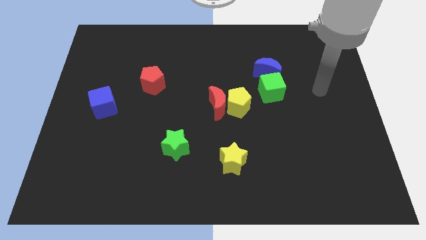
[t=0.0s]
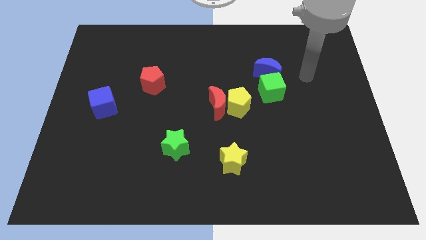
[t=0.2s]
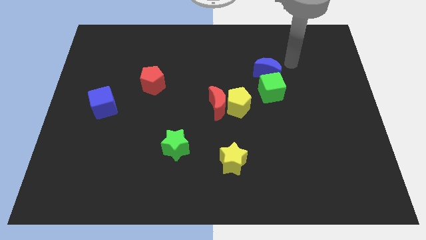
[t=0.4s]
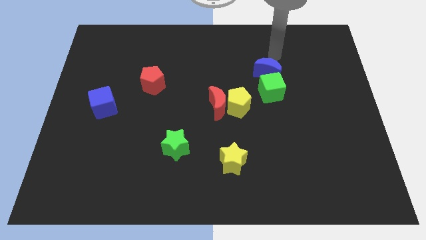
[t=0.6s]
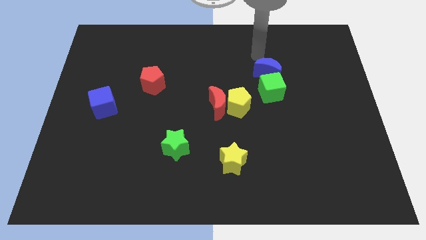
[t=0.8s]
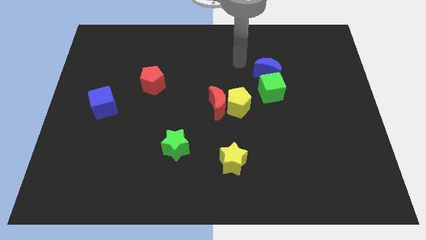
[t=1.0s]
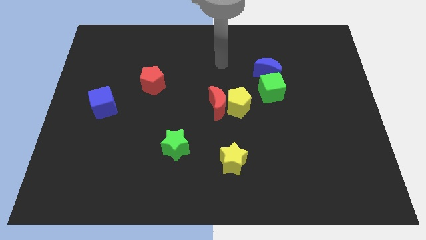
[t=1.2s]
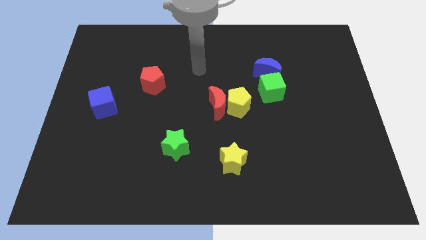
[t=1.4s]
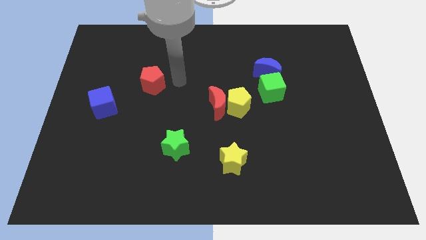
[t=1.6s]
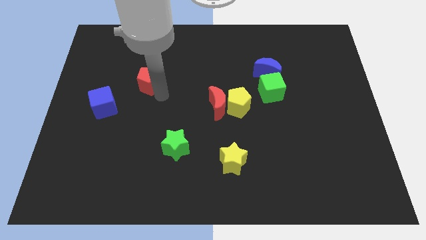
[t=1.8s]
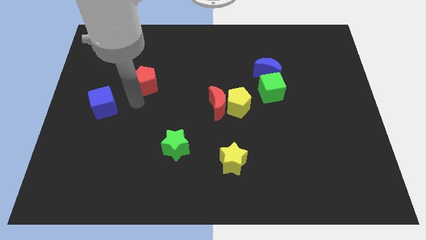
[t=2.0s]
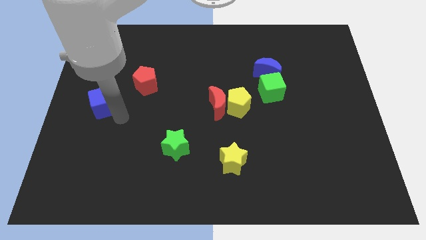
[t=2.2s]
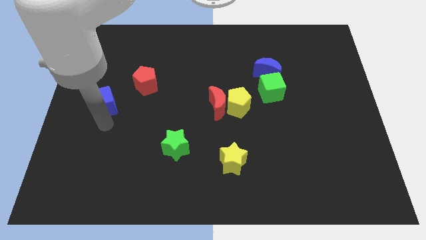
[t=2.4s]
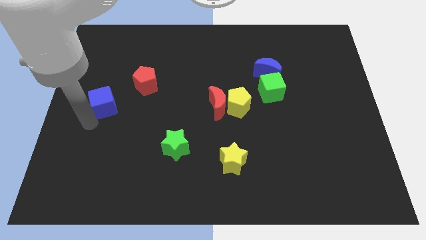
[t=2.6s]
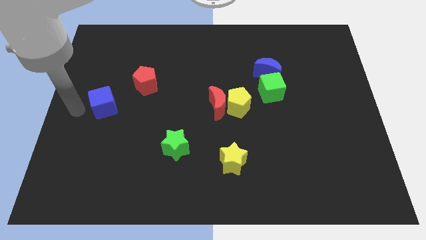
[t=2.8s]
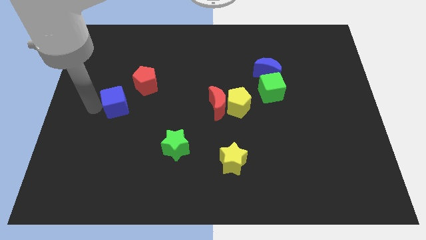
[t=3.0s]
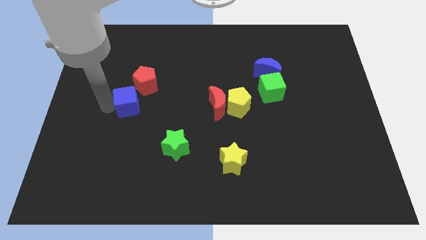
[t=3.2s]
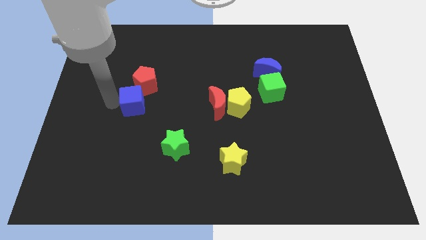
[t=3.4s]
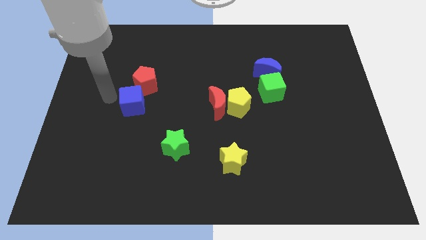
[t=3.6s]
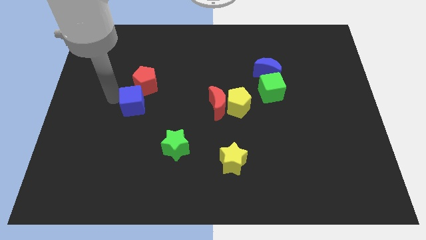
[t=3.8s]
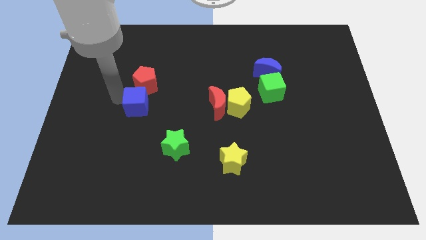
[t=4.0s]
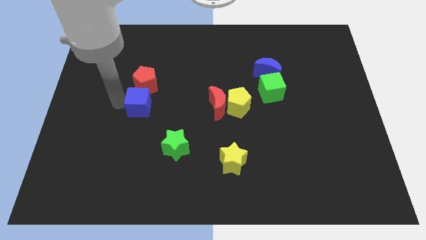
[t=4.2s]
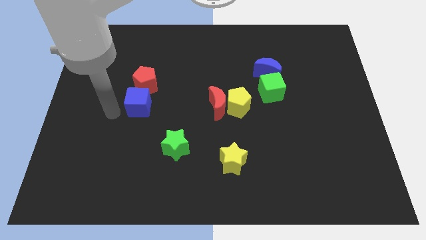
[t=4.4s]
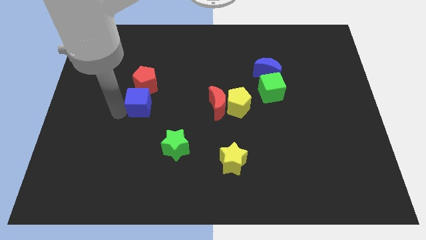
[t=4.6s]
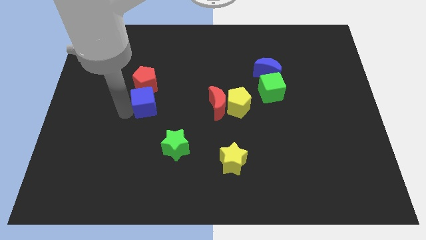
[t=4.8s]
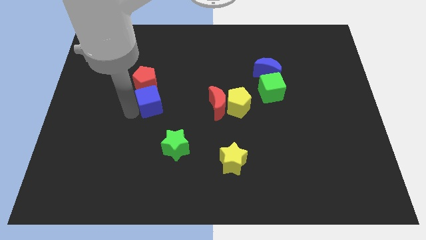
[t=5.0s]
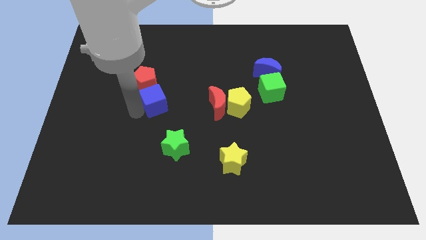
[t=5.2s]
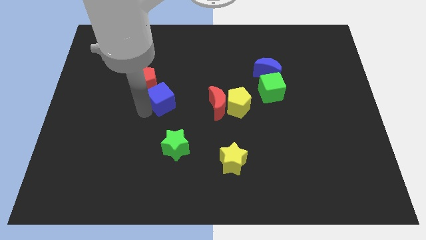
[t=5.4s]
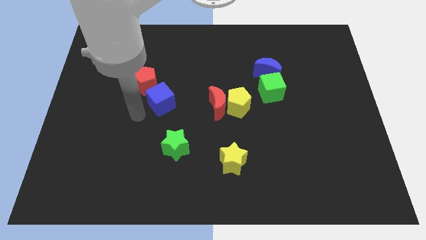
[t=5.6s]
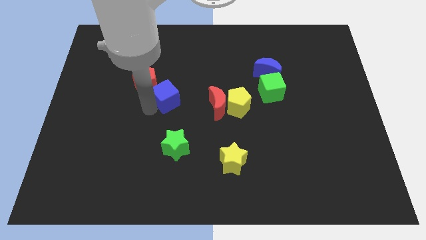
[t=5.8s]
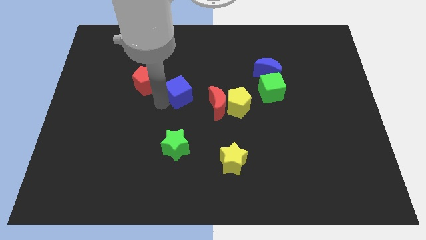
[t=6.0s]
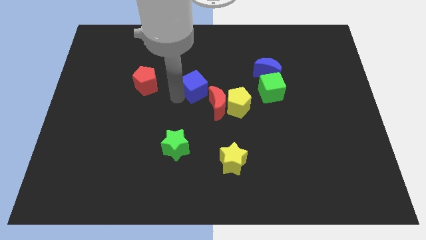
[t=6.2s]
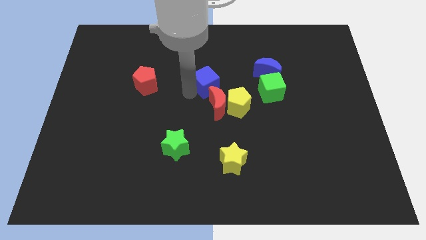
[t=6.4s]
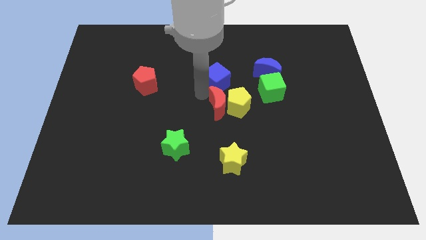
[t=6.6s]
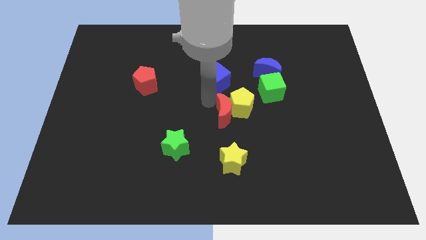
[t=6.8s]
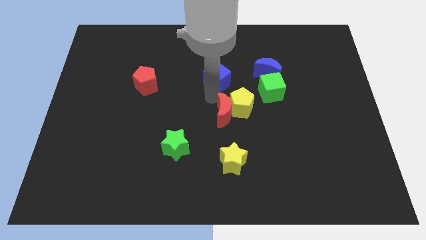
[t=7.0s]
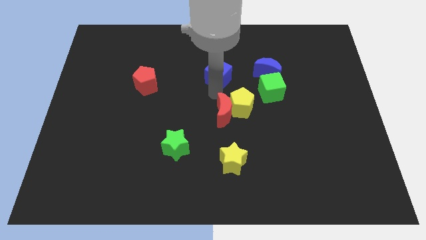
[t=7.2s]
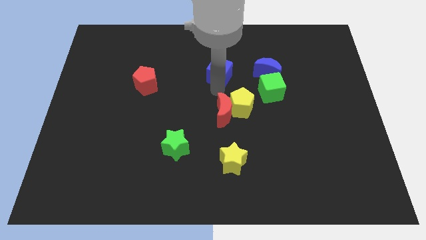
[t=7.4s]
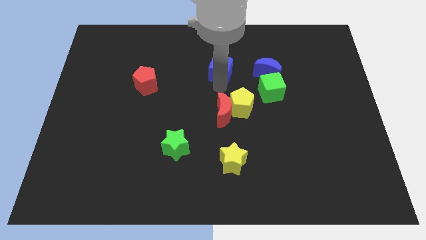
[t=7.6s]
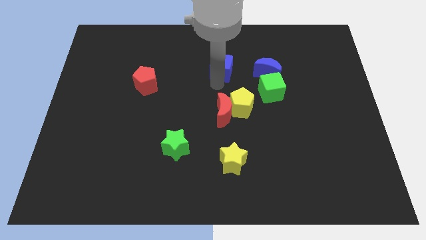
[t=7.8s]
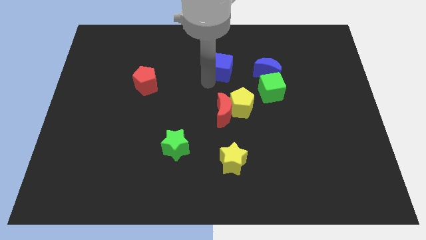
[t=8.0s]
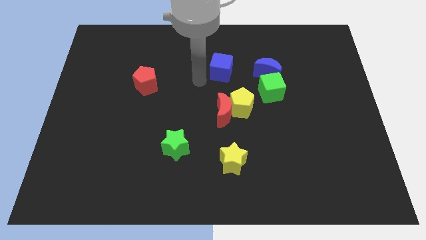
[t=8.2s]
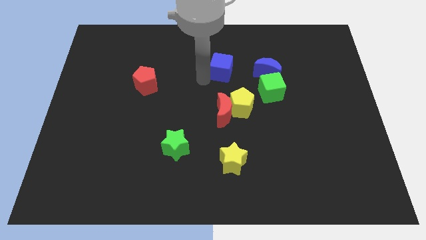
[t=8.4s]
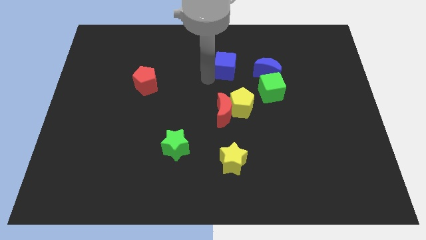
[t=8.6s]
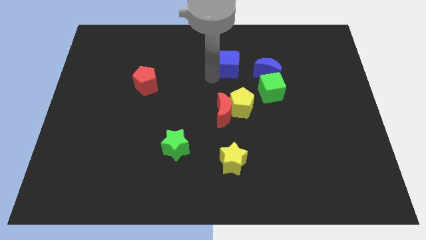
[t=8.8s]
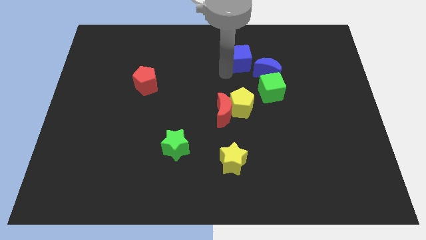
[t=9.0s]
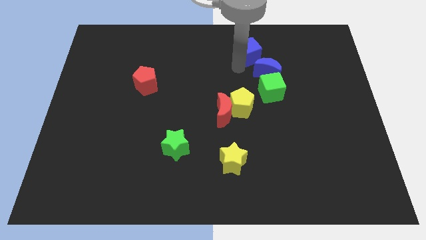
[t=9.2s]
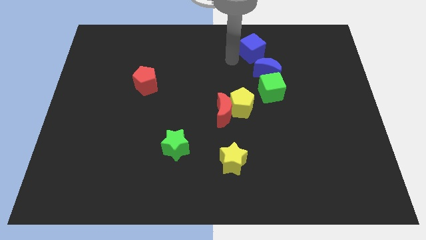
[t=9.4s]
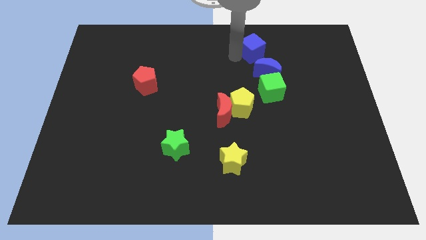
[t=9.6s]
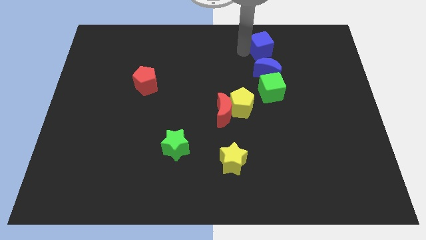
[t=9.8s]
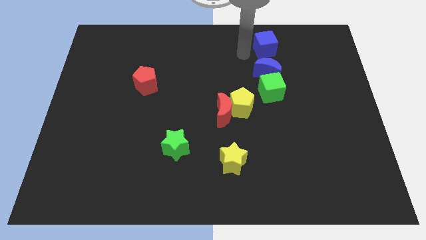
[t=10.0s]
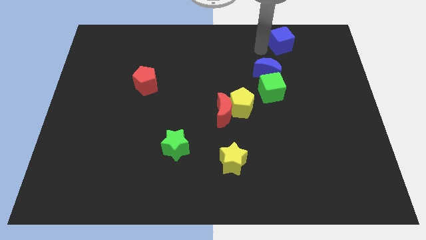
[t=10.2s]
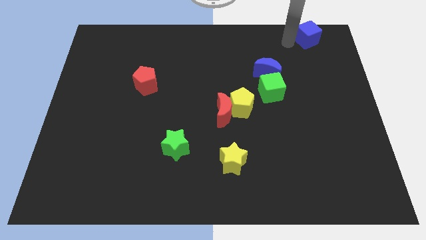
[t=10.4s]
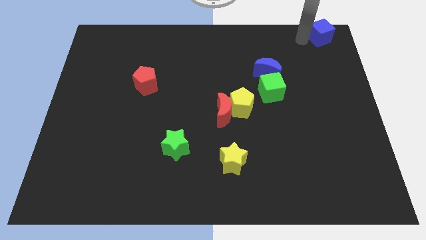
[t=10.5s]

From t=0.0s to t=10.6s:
move the blue cube to the upper right corner

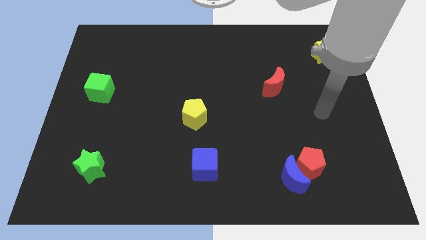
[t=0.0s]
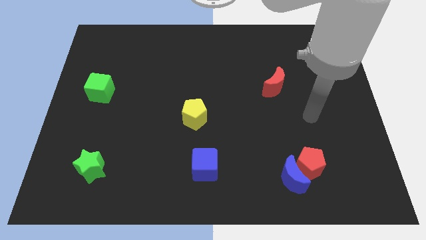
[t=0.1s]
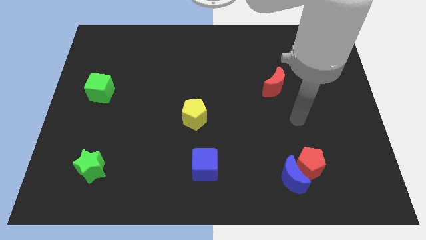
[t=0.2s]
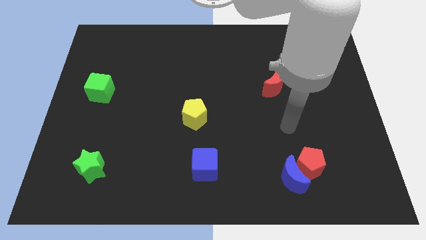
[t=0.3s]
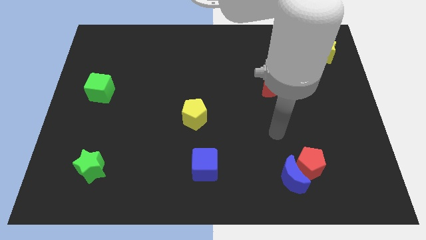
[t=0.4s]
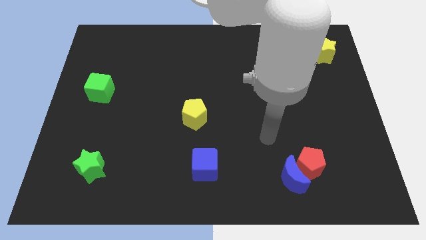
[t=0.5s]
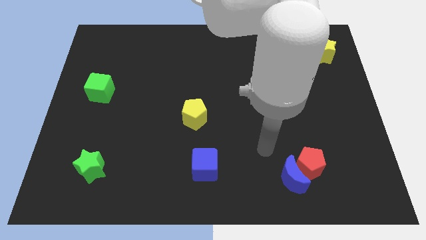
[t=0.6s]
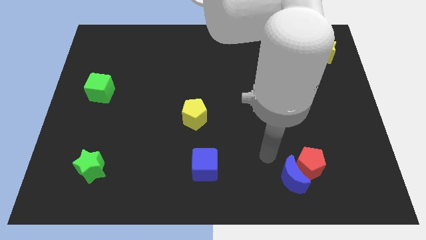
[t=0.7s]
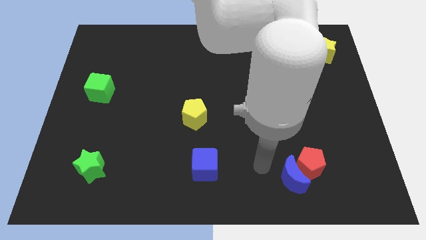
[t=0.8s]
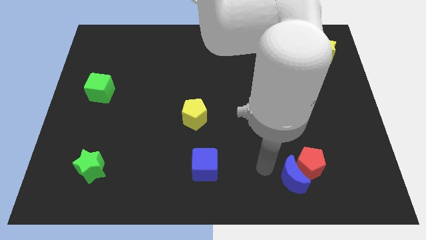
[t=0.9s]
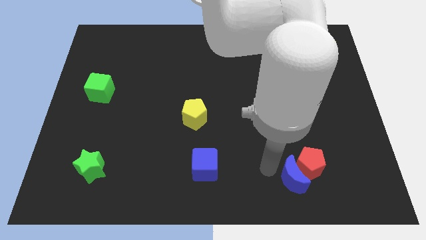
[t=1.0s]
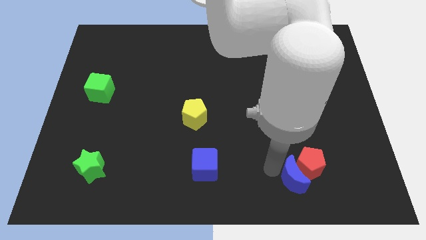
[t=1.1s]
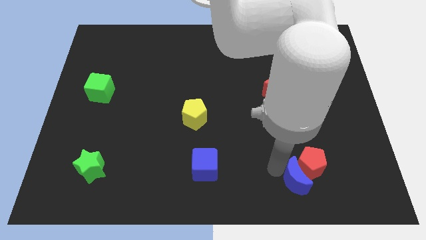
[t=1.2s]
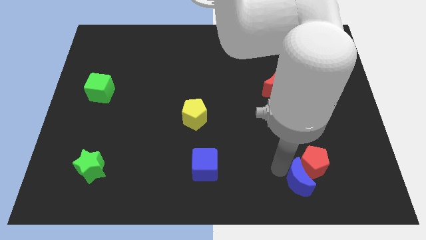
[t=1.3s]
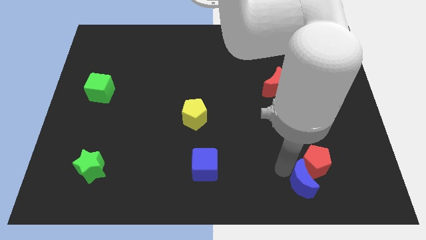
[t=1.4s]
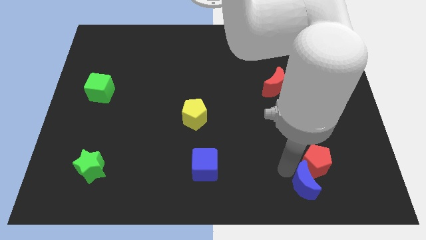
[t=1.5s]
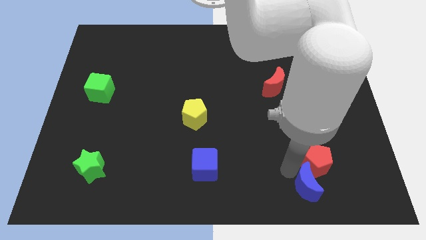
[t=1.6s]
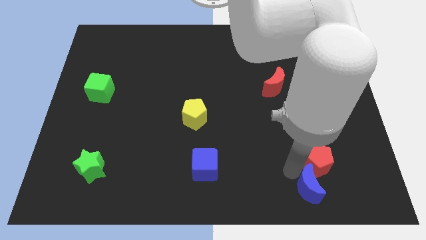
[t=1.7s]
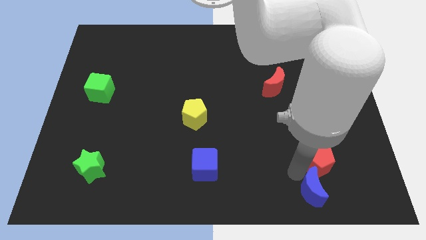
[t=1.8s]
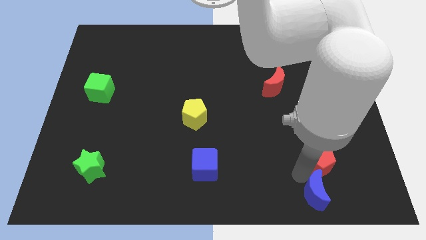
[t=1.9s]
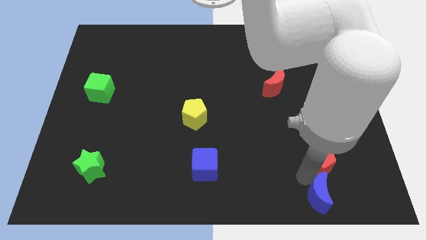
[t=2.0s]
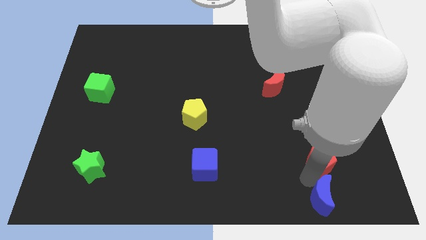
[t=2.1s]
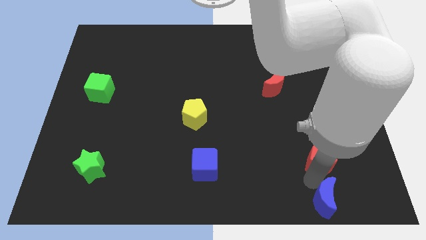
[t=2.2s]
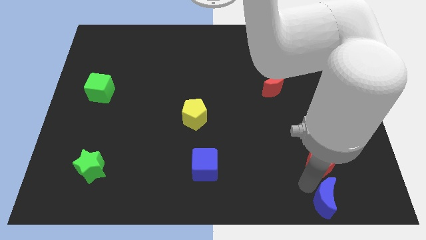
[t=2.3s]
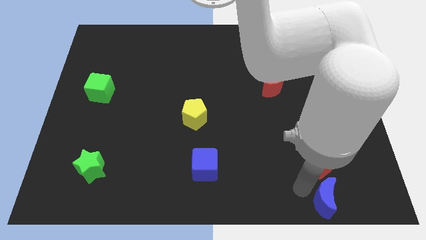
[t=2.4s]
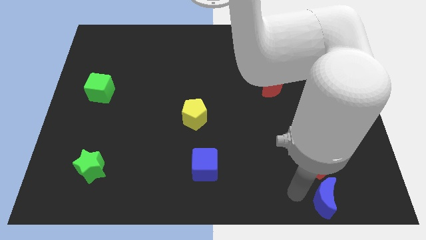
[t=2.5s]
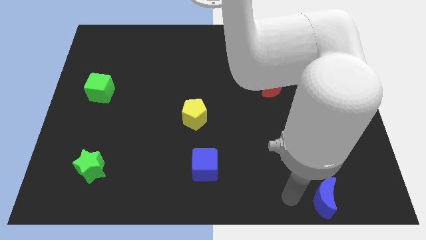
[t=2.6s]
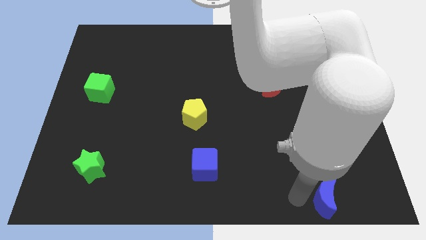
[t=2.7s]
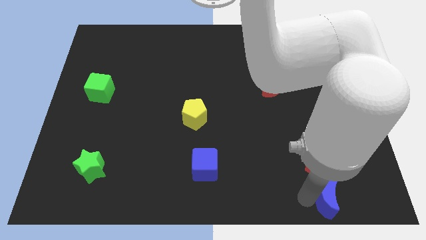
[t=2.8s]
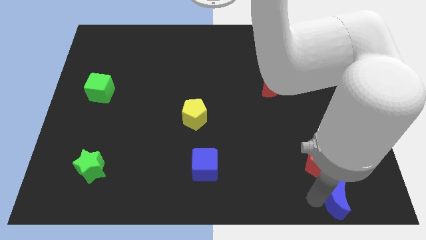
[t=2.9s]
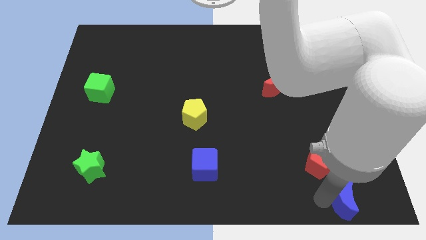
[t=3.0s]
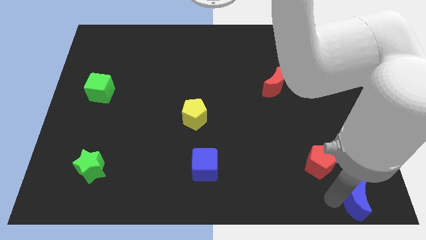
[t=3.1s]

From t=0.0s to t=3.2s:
put the blue moon to the lower right corner
